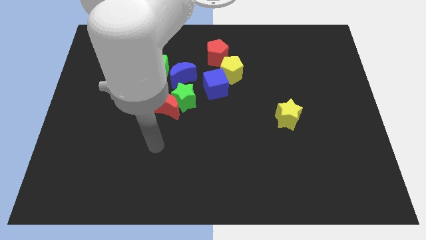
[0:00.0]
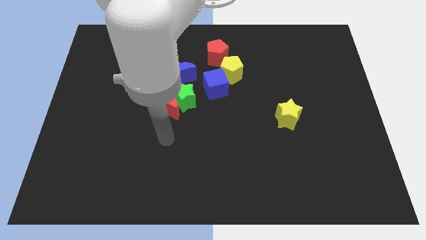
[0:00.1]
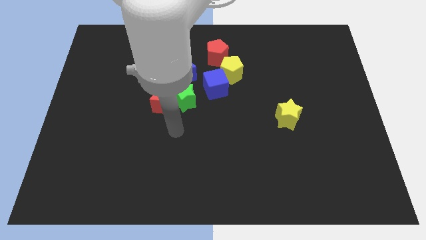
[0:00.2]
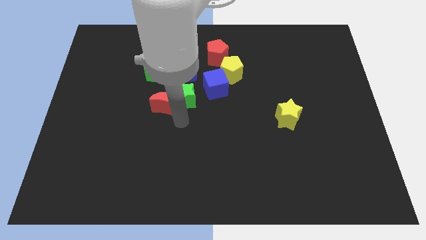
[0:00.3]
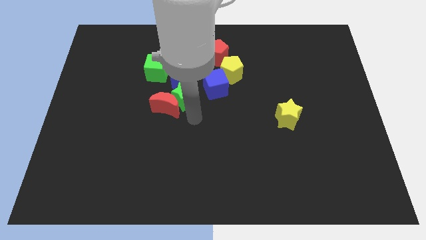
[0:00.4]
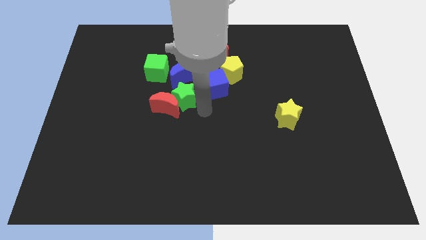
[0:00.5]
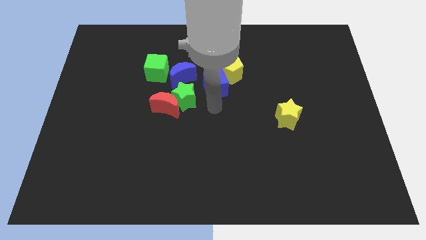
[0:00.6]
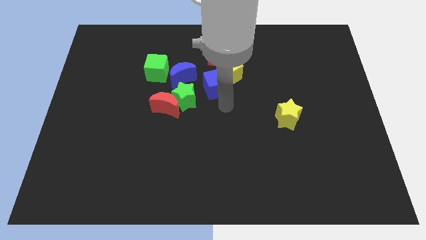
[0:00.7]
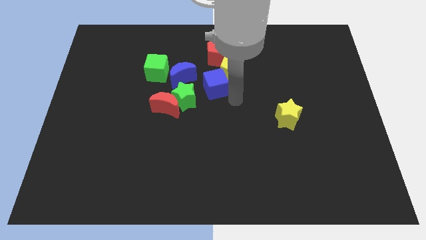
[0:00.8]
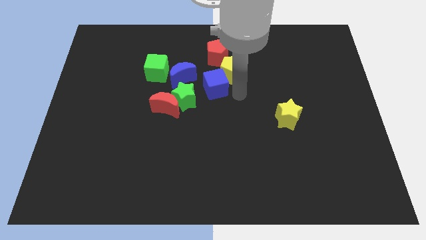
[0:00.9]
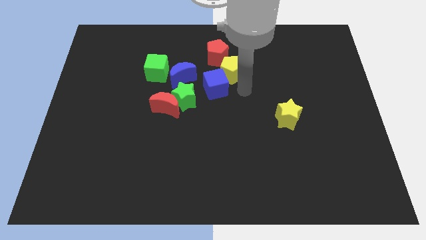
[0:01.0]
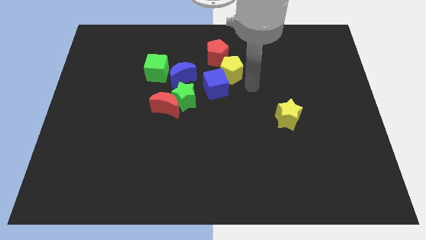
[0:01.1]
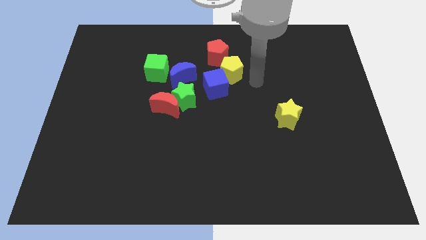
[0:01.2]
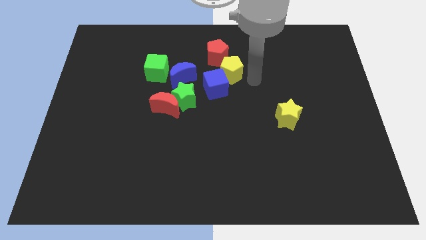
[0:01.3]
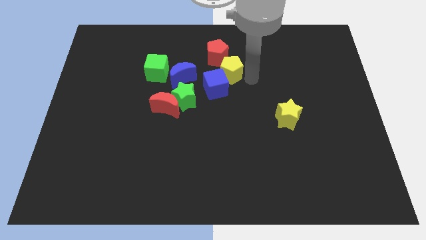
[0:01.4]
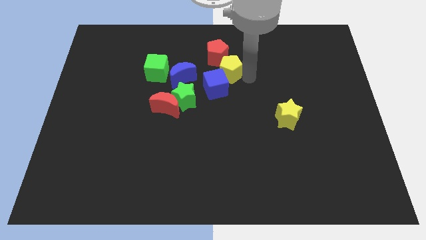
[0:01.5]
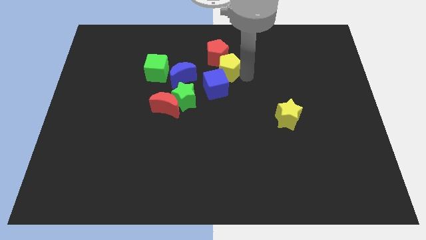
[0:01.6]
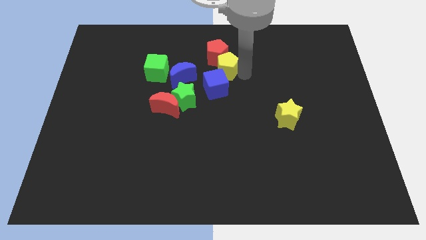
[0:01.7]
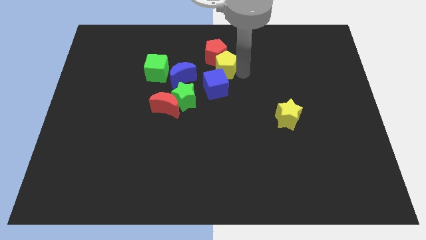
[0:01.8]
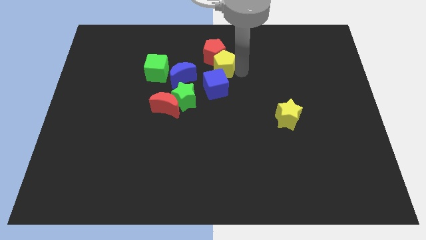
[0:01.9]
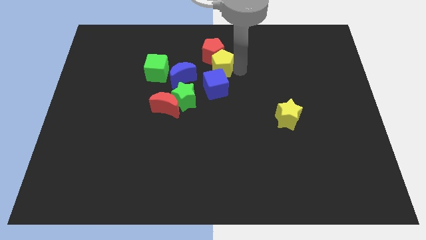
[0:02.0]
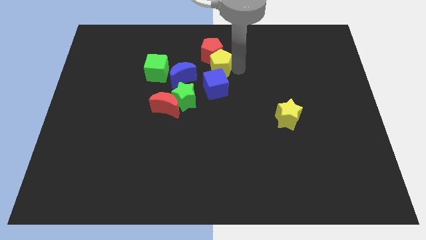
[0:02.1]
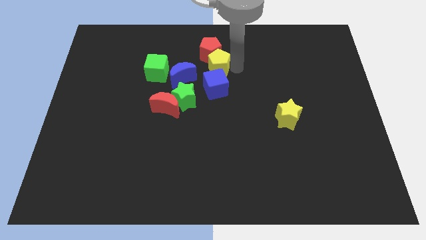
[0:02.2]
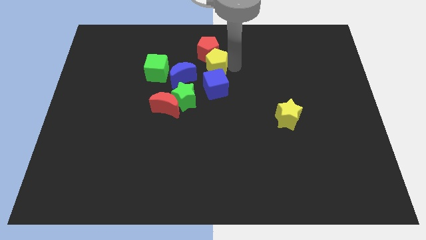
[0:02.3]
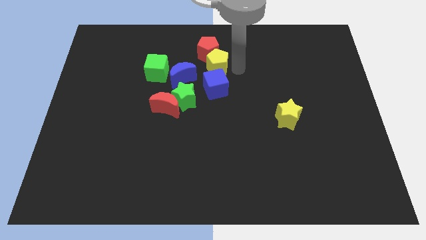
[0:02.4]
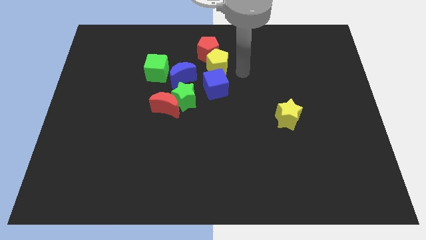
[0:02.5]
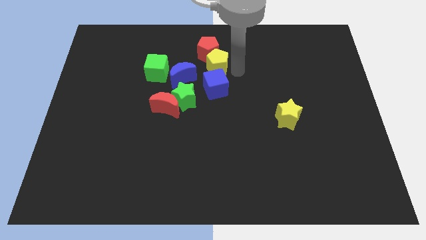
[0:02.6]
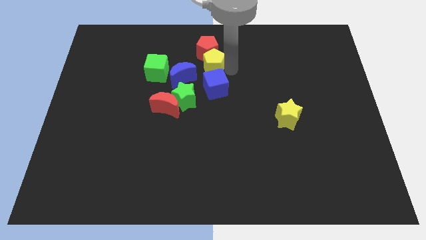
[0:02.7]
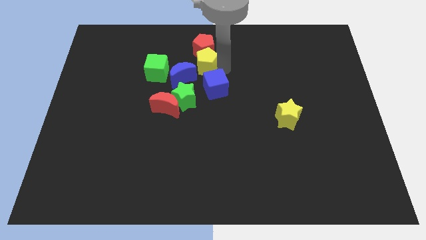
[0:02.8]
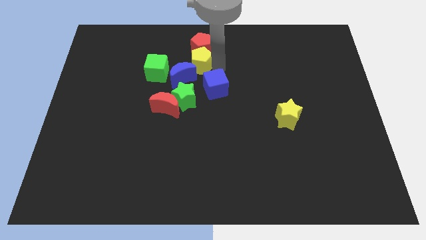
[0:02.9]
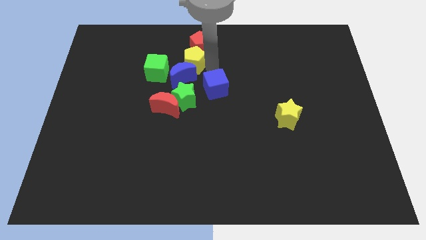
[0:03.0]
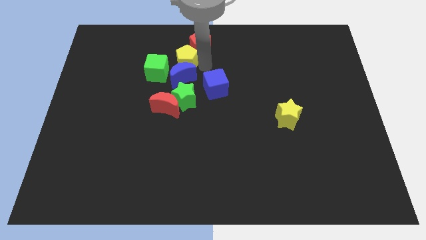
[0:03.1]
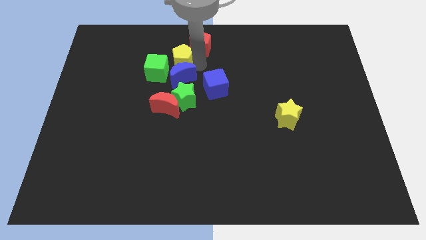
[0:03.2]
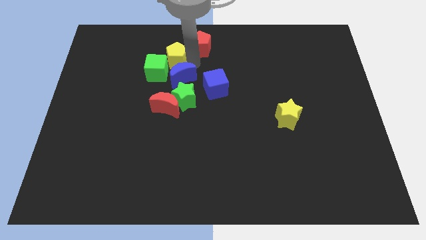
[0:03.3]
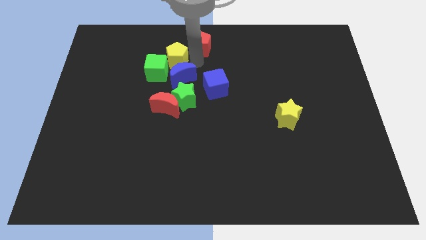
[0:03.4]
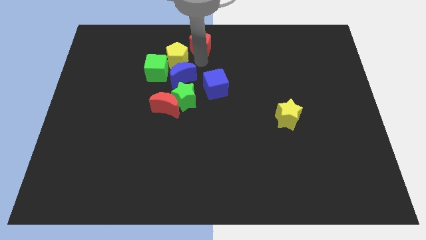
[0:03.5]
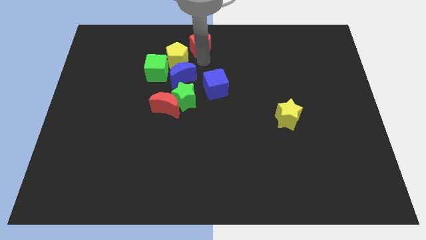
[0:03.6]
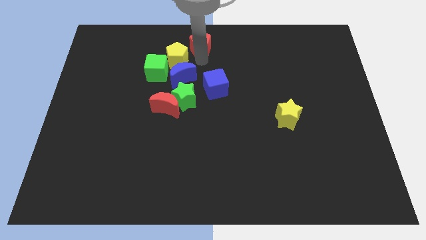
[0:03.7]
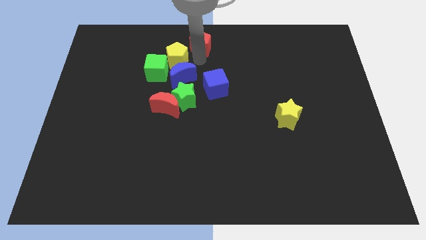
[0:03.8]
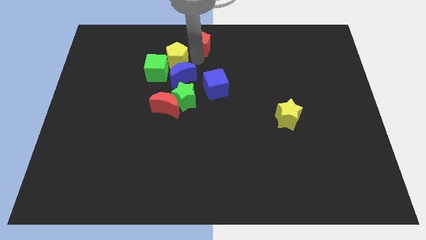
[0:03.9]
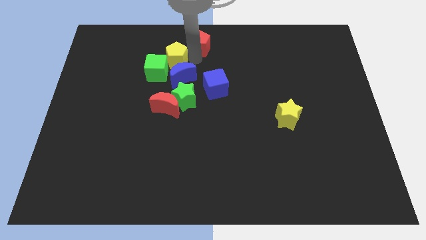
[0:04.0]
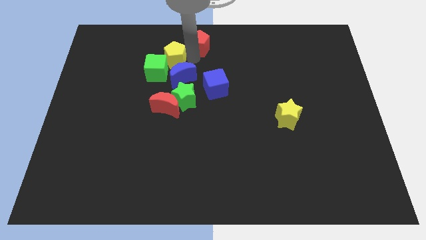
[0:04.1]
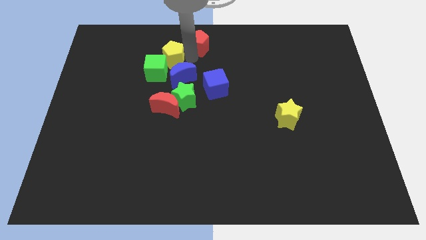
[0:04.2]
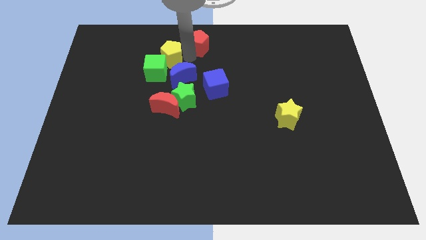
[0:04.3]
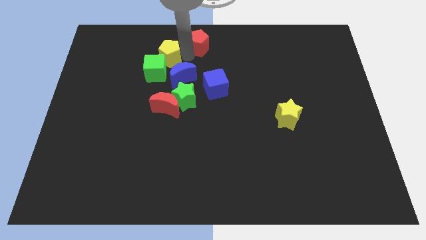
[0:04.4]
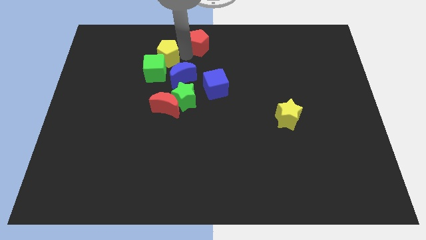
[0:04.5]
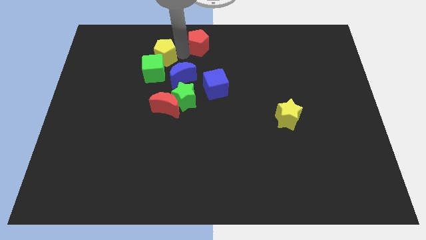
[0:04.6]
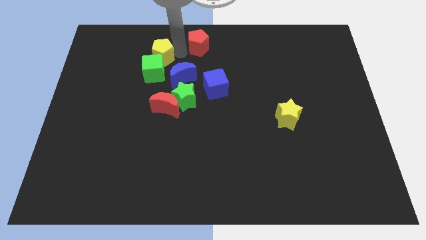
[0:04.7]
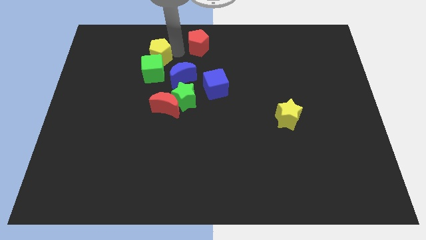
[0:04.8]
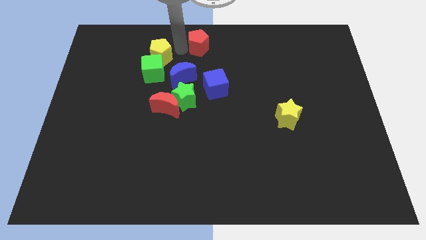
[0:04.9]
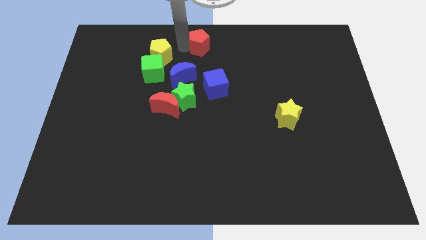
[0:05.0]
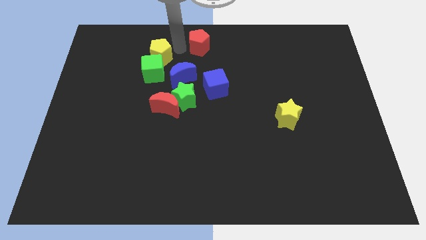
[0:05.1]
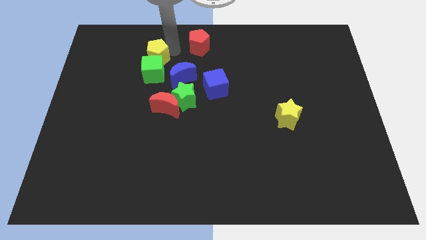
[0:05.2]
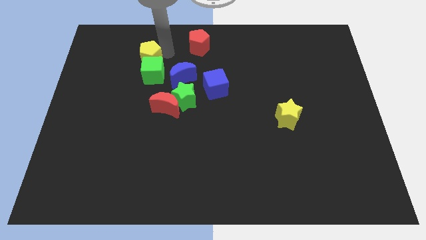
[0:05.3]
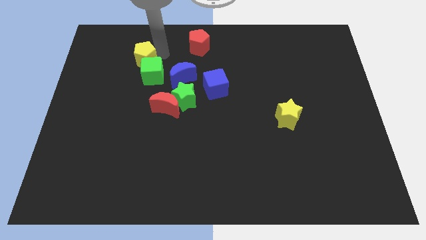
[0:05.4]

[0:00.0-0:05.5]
push the yellow pentagon to the left

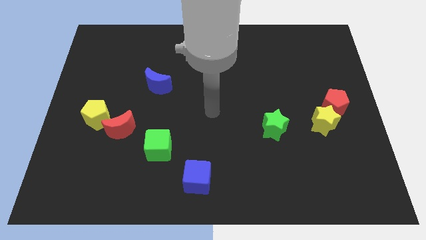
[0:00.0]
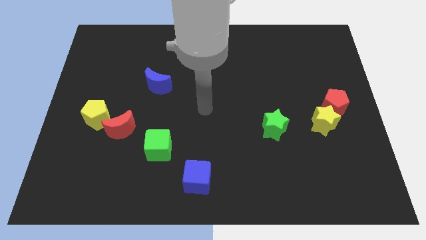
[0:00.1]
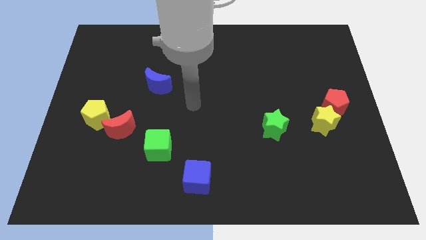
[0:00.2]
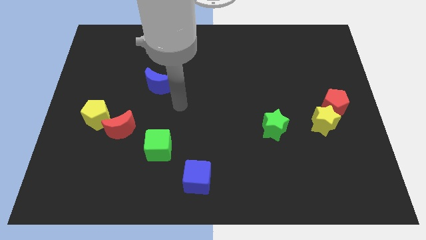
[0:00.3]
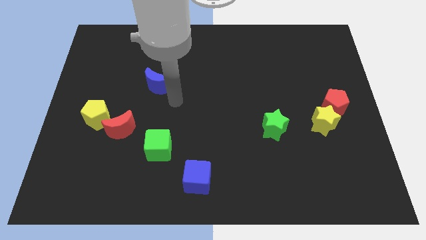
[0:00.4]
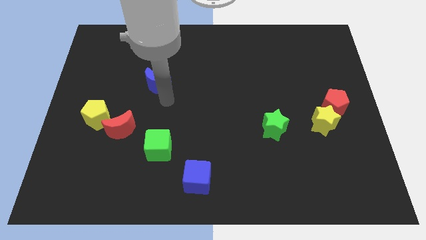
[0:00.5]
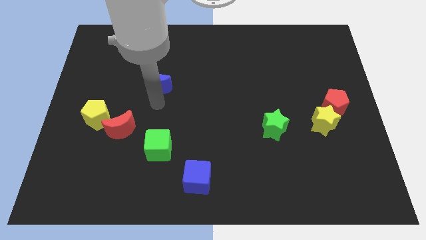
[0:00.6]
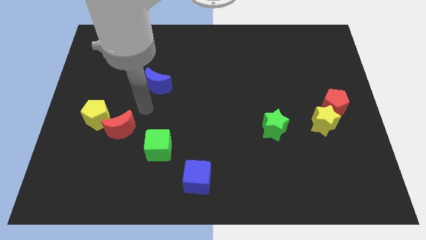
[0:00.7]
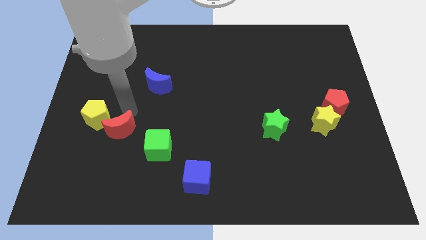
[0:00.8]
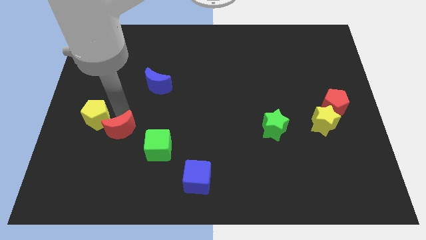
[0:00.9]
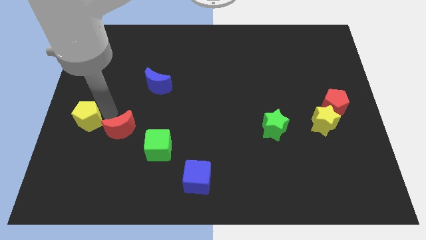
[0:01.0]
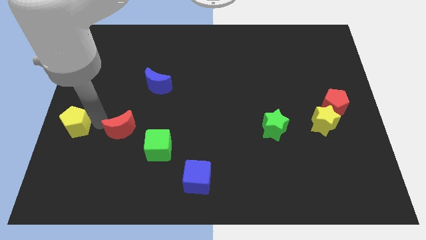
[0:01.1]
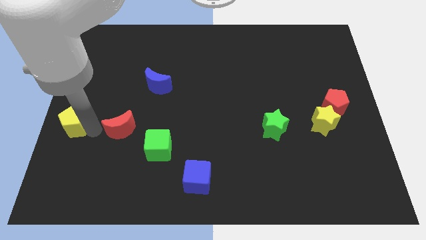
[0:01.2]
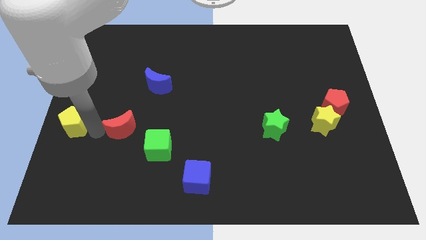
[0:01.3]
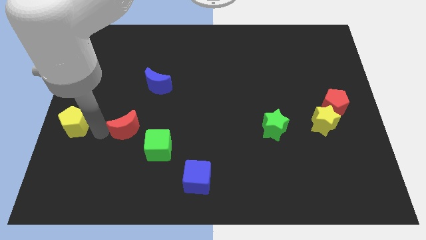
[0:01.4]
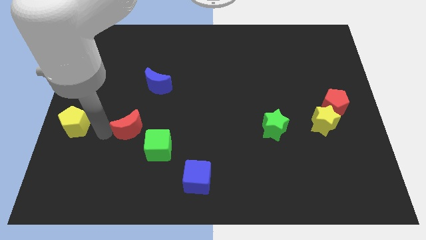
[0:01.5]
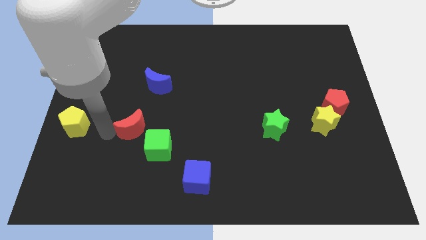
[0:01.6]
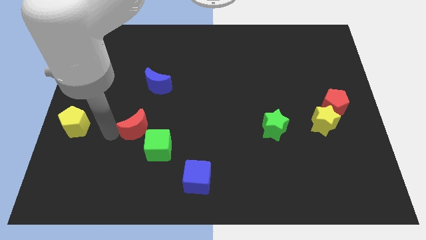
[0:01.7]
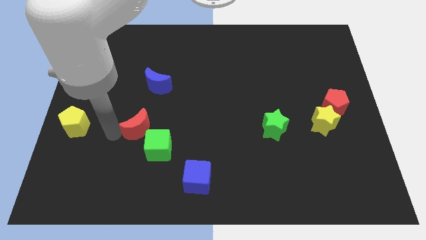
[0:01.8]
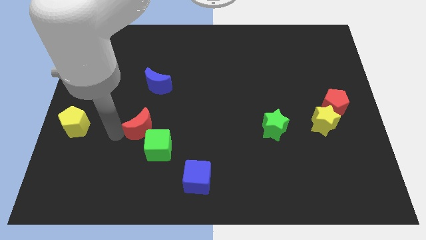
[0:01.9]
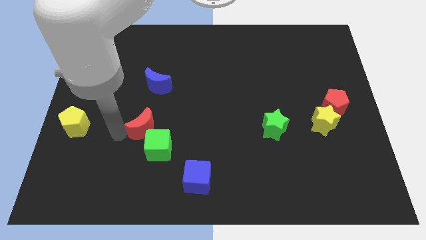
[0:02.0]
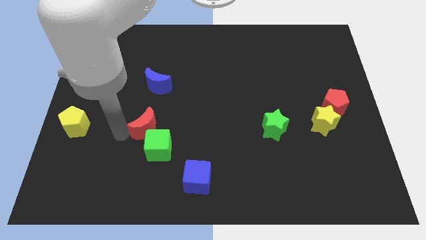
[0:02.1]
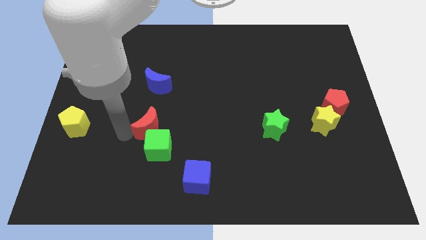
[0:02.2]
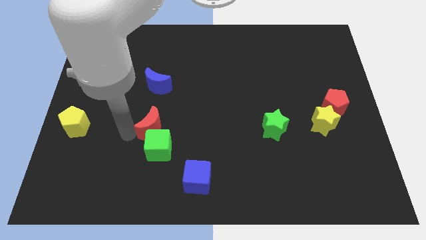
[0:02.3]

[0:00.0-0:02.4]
move the red moon right a bit

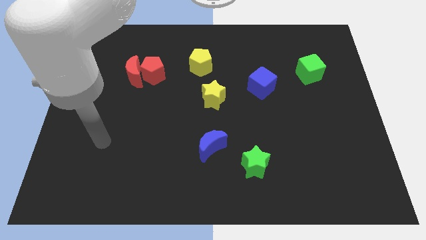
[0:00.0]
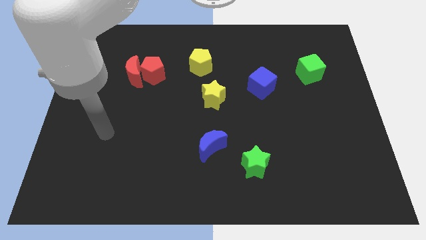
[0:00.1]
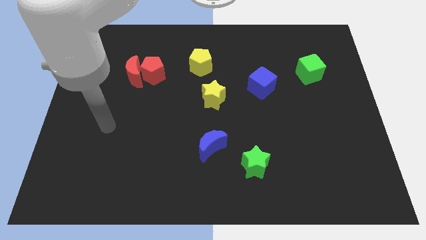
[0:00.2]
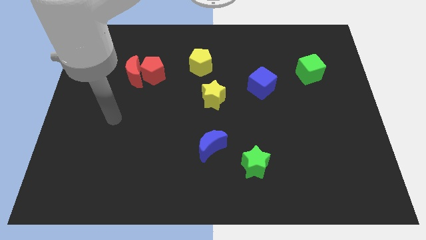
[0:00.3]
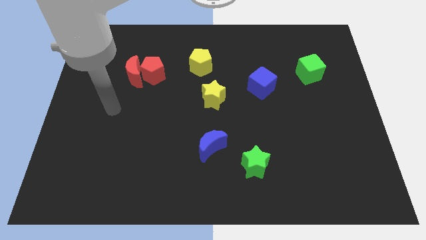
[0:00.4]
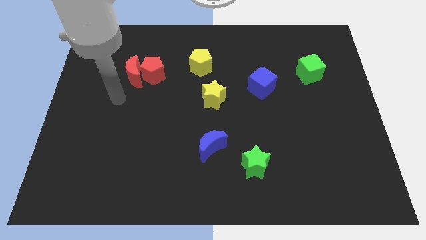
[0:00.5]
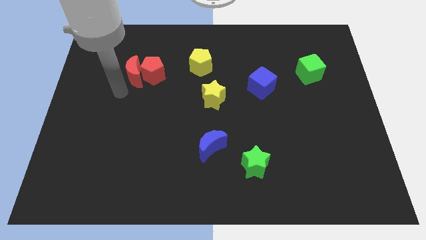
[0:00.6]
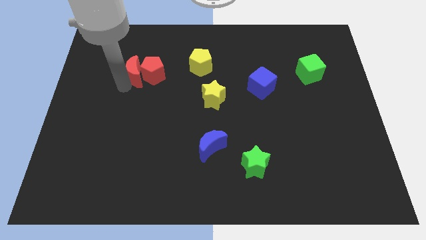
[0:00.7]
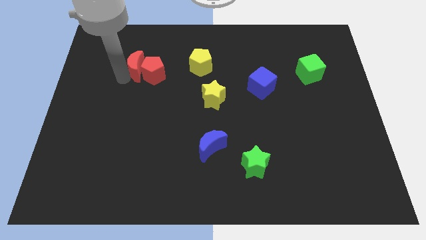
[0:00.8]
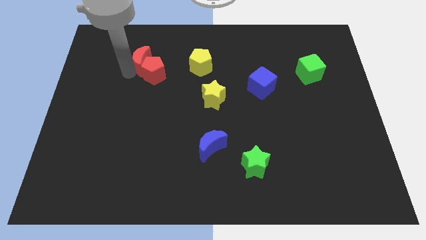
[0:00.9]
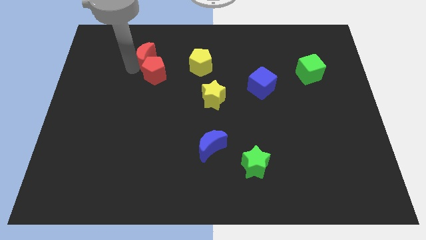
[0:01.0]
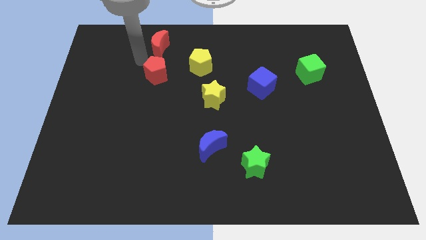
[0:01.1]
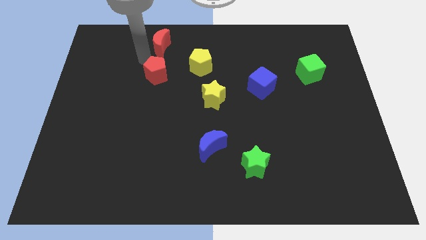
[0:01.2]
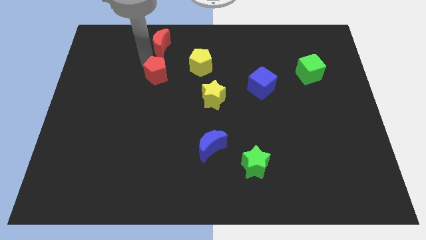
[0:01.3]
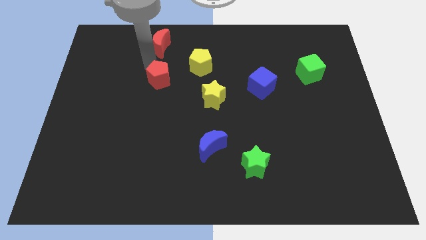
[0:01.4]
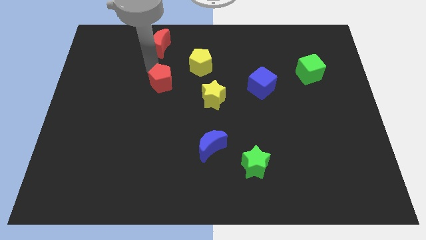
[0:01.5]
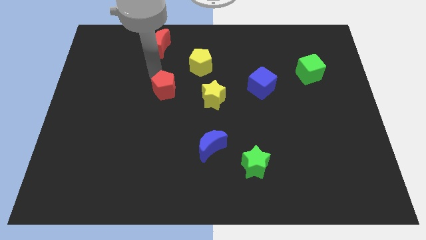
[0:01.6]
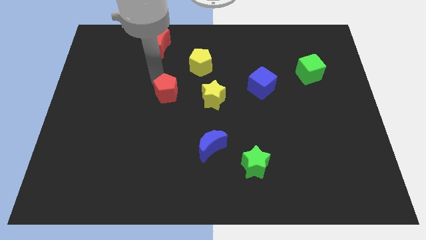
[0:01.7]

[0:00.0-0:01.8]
slightly move the red pentagon downwards and then to the right
